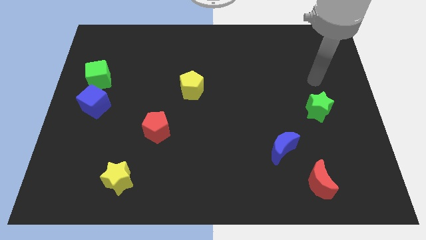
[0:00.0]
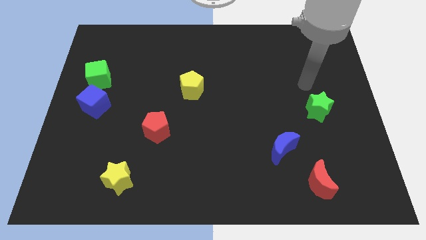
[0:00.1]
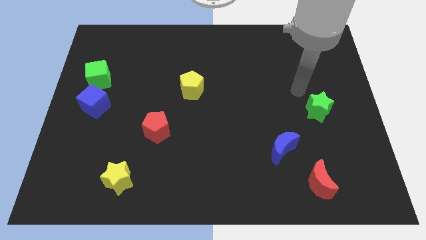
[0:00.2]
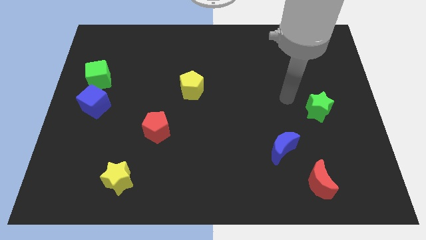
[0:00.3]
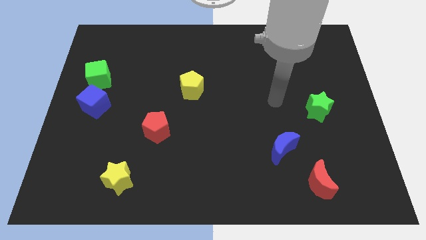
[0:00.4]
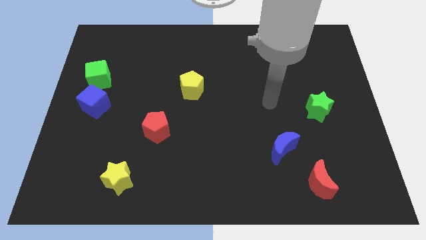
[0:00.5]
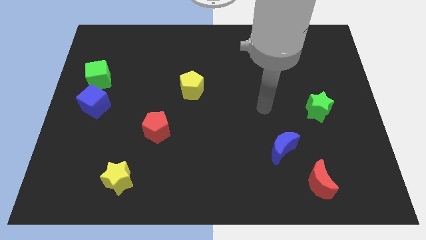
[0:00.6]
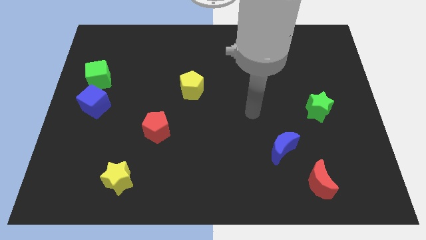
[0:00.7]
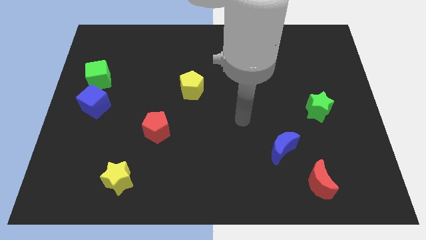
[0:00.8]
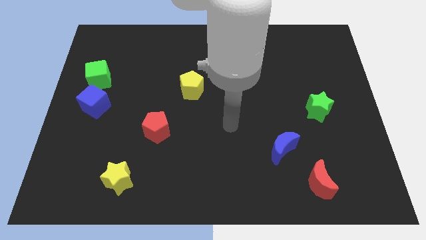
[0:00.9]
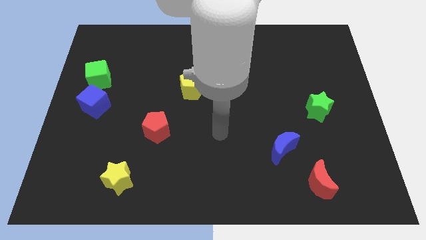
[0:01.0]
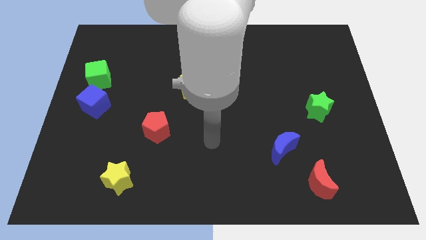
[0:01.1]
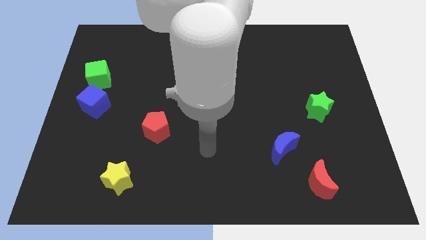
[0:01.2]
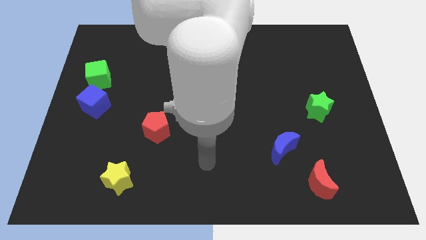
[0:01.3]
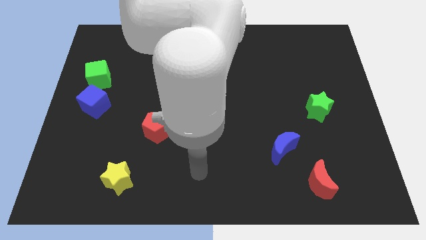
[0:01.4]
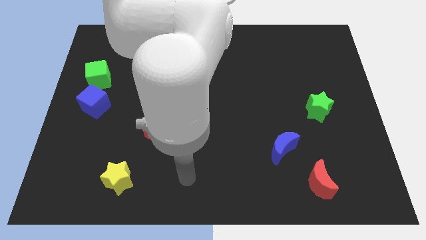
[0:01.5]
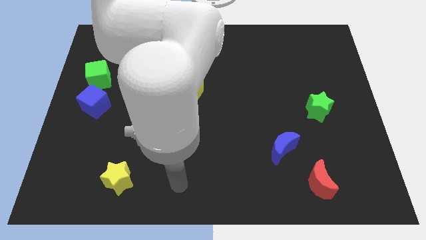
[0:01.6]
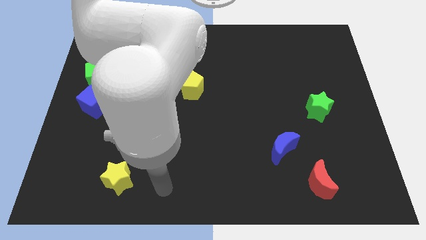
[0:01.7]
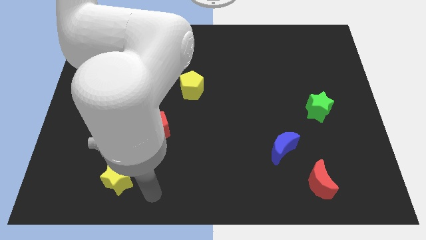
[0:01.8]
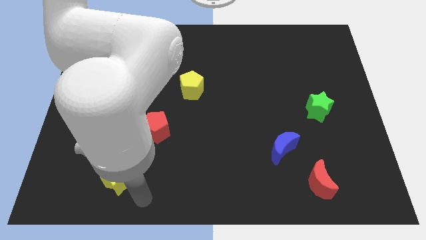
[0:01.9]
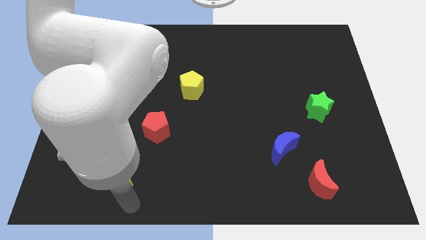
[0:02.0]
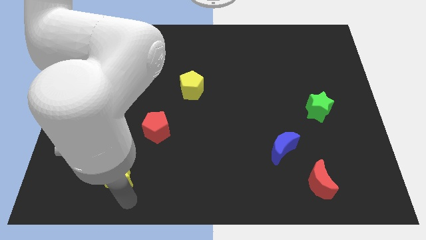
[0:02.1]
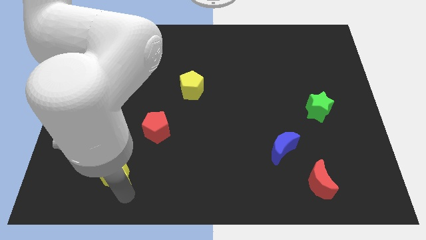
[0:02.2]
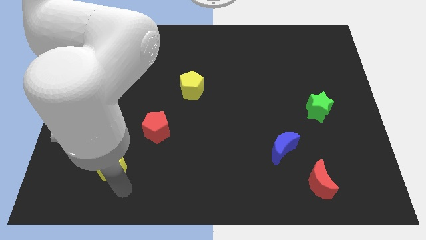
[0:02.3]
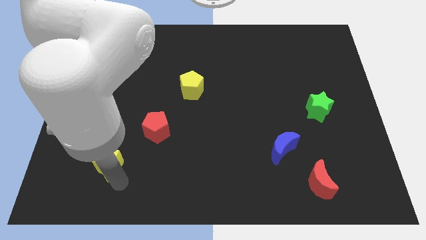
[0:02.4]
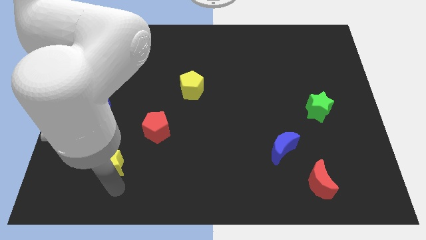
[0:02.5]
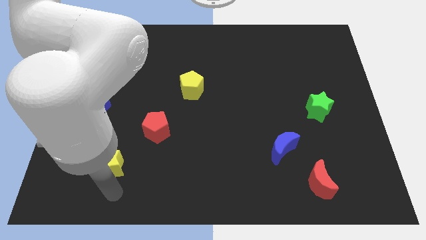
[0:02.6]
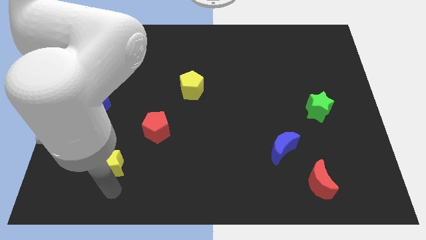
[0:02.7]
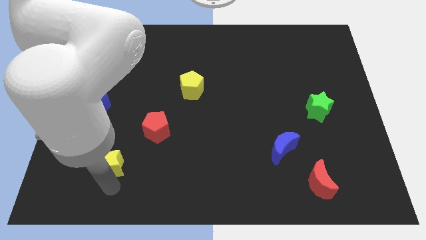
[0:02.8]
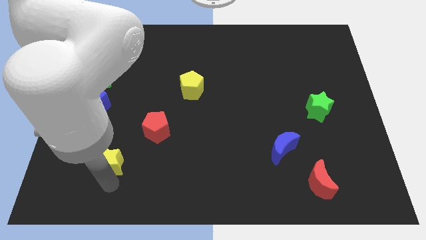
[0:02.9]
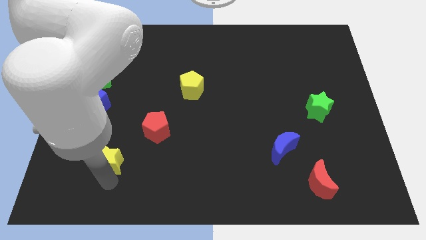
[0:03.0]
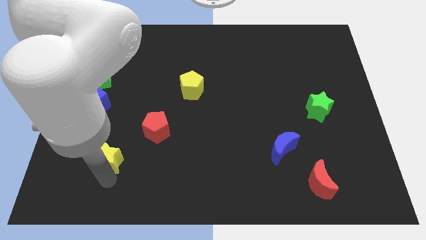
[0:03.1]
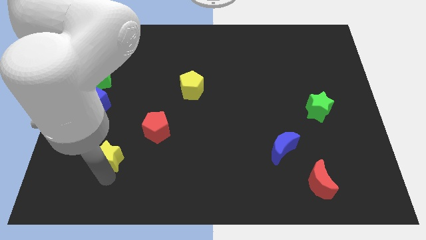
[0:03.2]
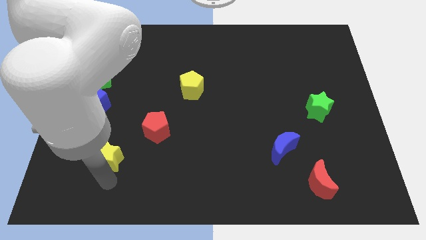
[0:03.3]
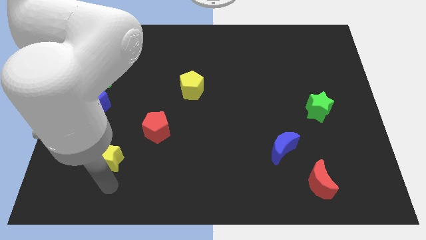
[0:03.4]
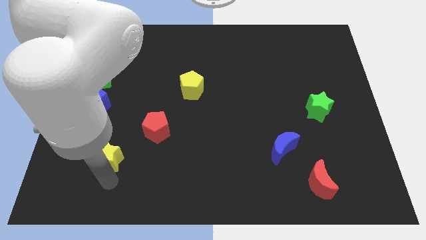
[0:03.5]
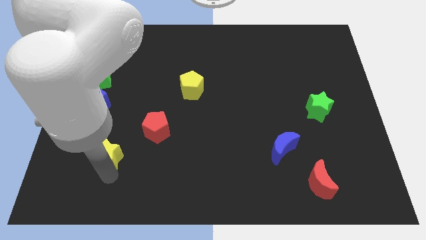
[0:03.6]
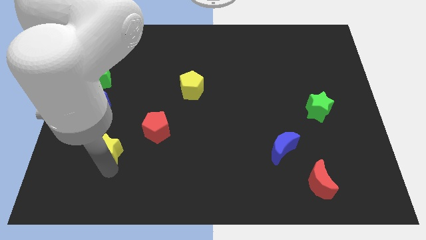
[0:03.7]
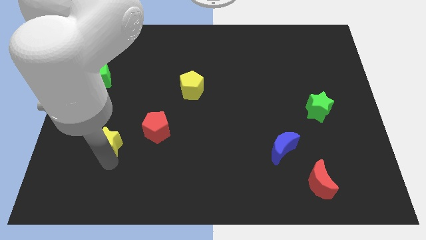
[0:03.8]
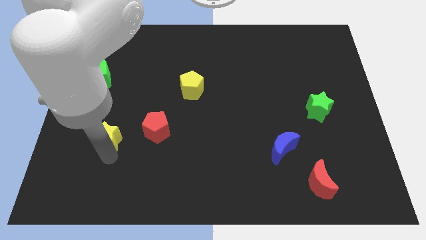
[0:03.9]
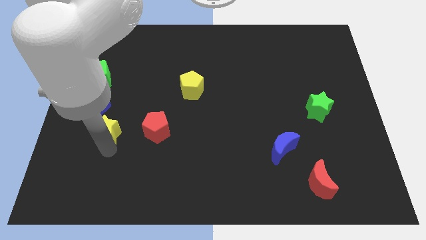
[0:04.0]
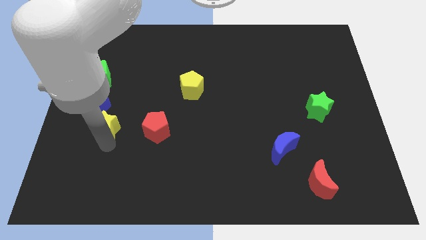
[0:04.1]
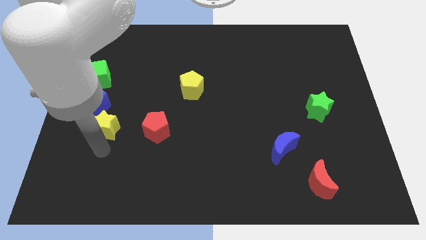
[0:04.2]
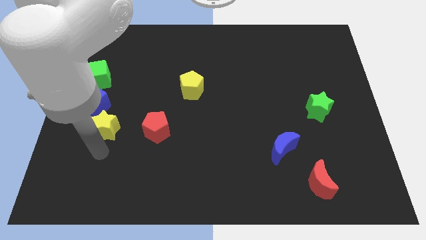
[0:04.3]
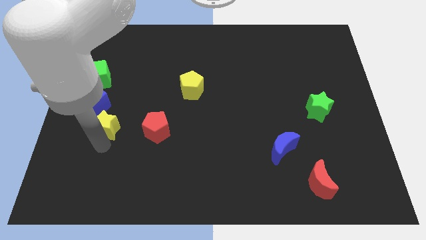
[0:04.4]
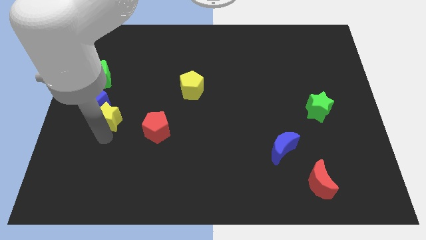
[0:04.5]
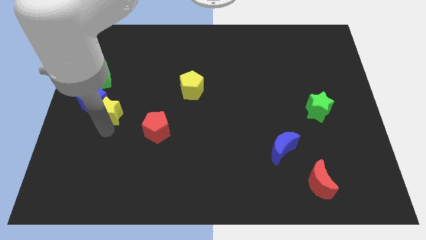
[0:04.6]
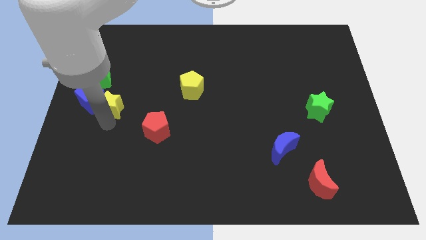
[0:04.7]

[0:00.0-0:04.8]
put the yellow star to the bottom right side of the green cube

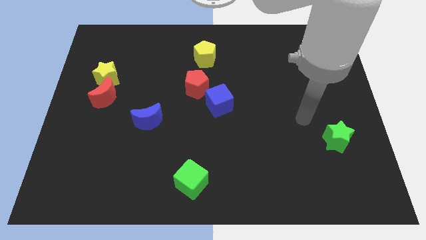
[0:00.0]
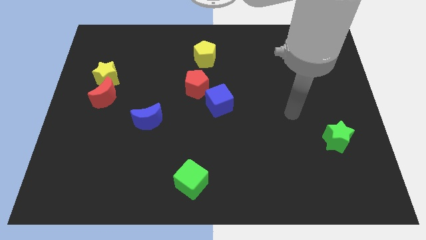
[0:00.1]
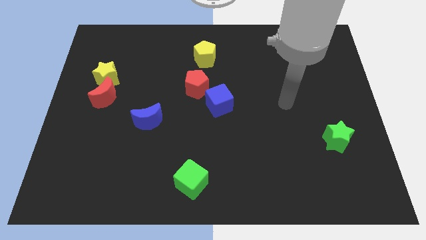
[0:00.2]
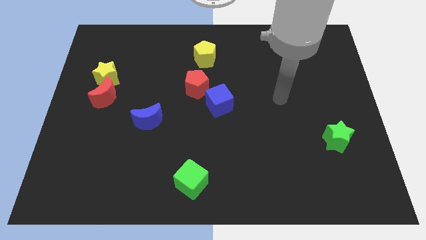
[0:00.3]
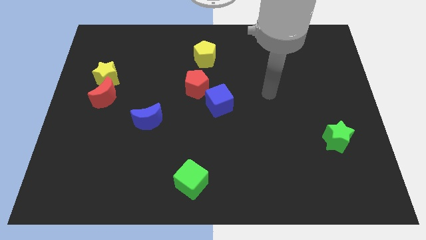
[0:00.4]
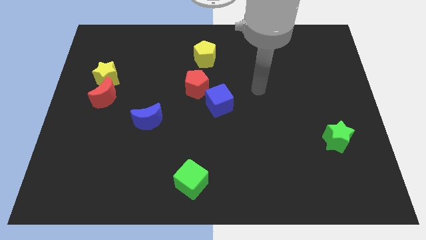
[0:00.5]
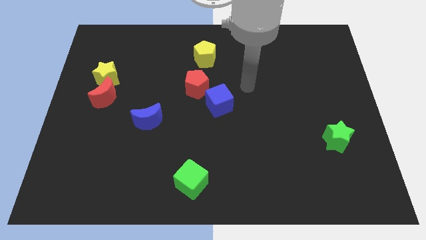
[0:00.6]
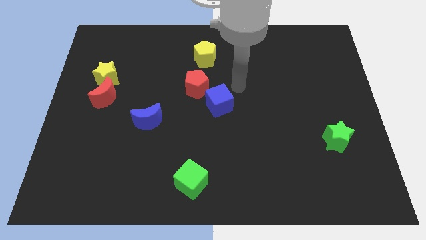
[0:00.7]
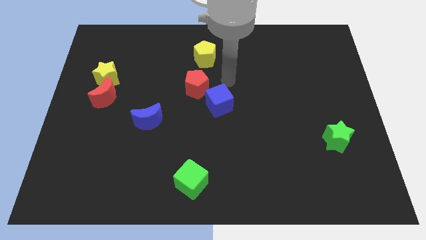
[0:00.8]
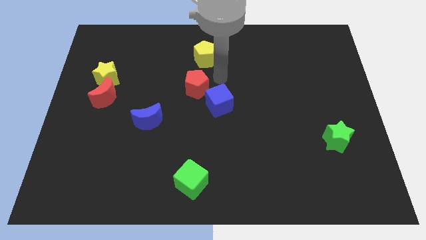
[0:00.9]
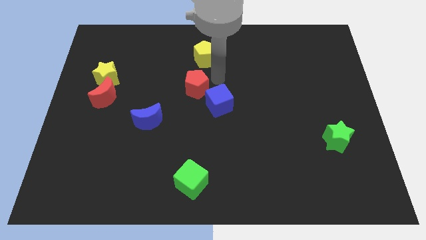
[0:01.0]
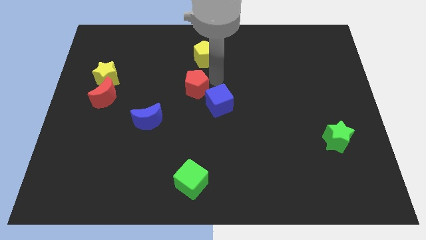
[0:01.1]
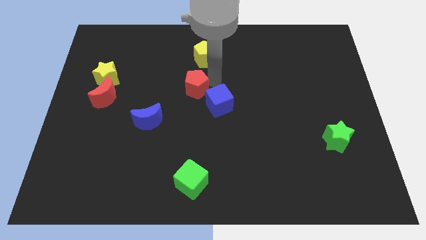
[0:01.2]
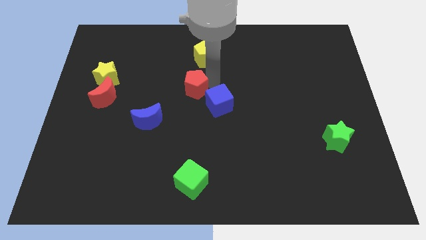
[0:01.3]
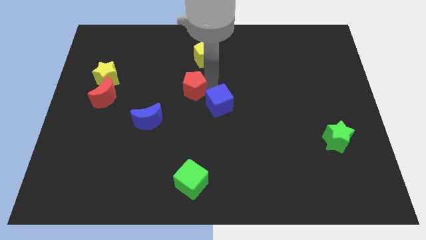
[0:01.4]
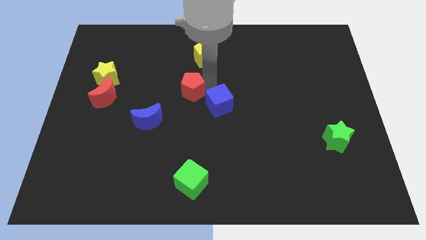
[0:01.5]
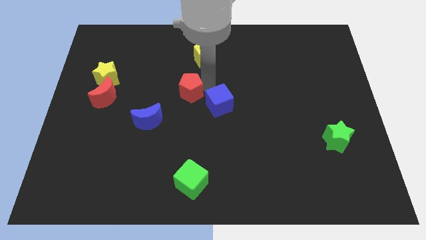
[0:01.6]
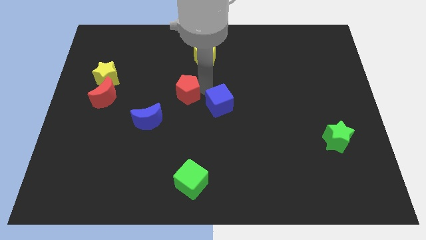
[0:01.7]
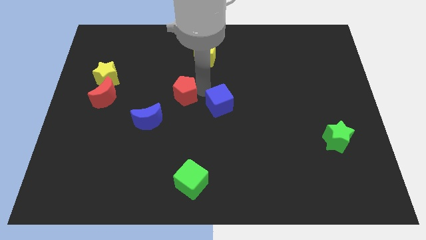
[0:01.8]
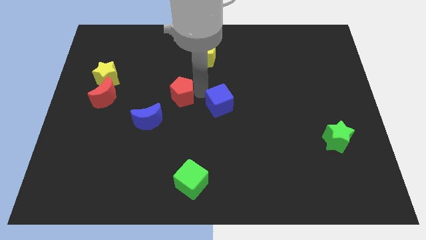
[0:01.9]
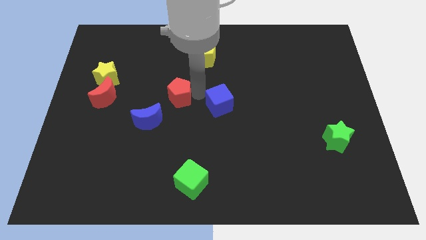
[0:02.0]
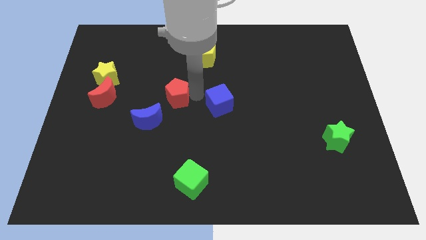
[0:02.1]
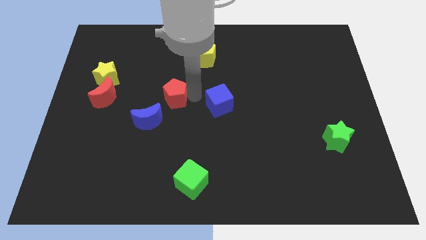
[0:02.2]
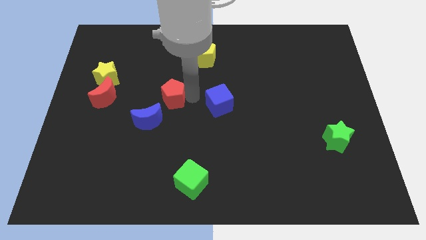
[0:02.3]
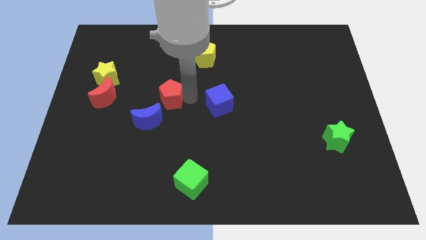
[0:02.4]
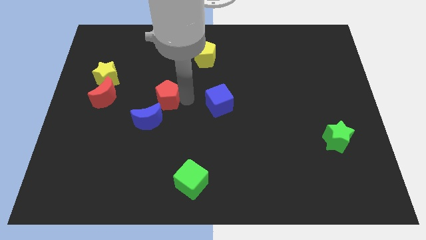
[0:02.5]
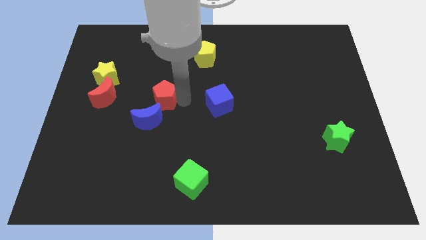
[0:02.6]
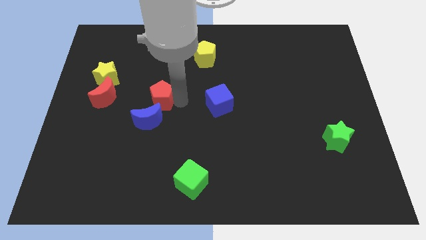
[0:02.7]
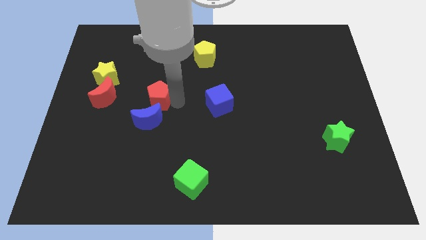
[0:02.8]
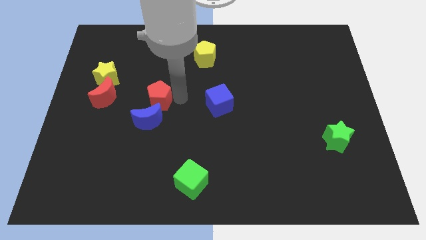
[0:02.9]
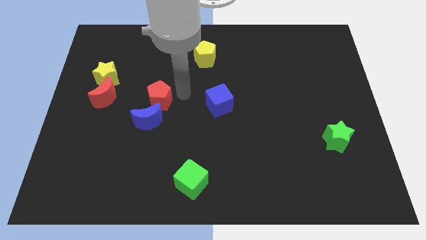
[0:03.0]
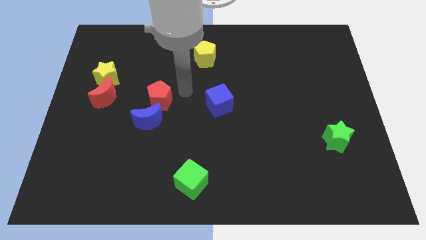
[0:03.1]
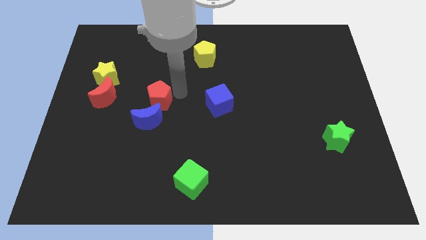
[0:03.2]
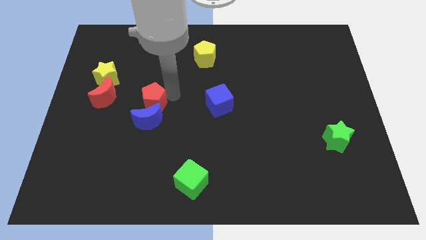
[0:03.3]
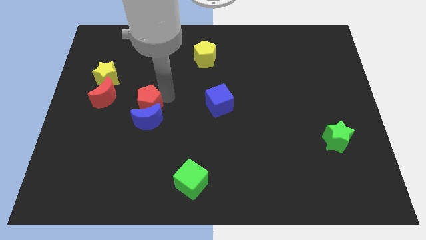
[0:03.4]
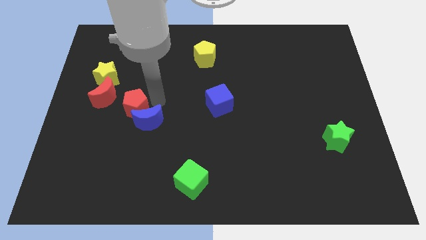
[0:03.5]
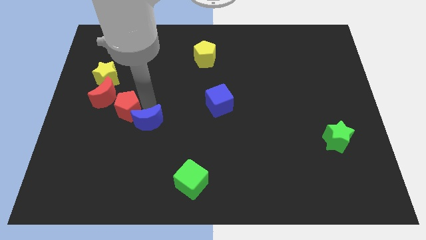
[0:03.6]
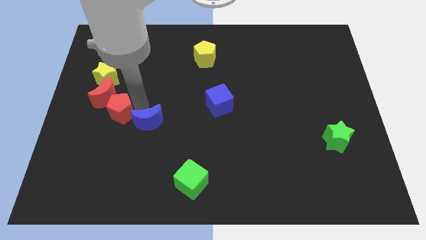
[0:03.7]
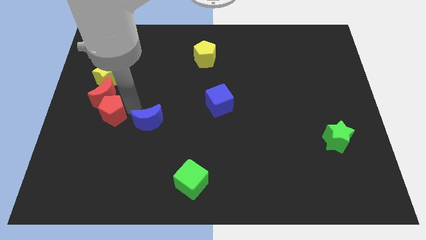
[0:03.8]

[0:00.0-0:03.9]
push the red pentagon to the bottom side of the yellow star
